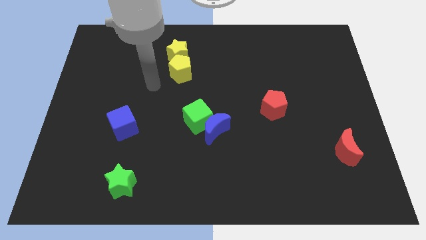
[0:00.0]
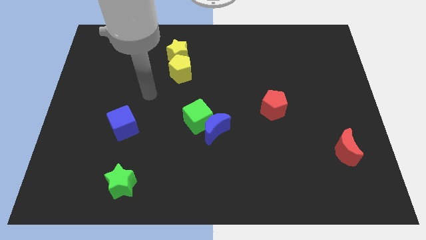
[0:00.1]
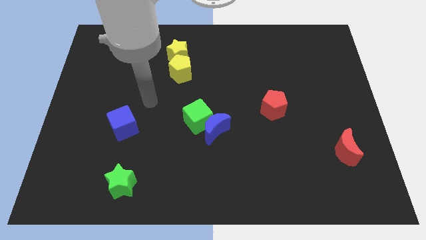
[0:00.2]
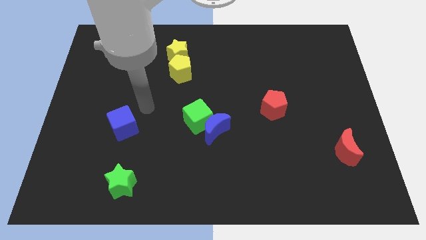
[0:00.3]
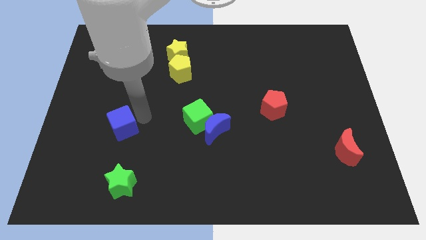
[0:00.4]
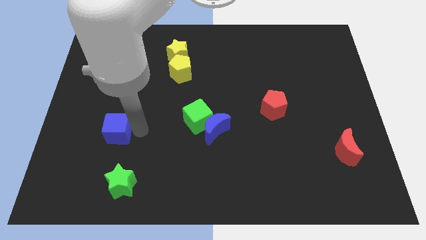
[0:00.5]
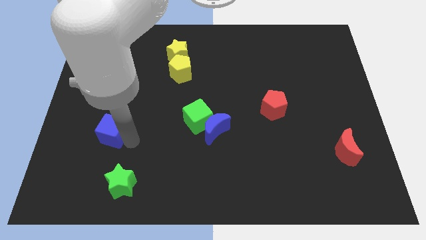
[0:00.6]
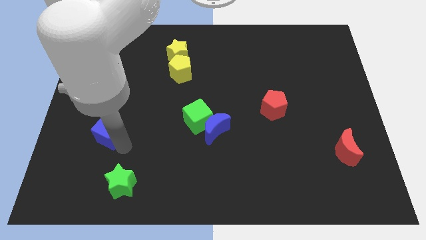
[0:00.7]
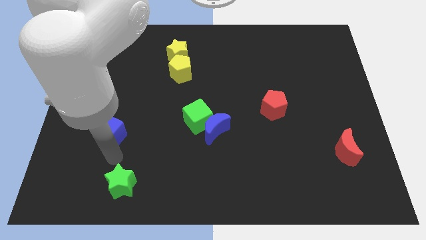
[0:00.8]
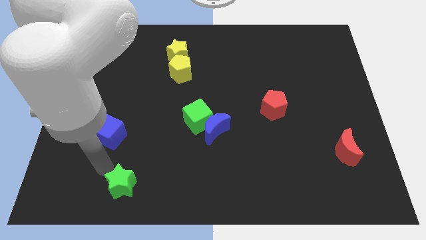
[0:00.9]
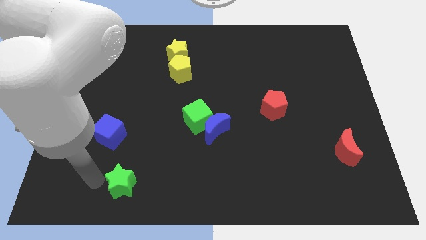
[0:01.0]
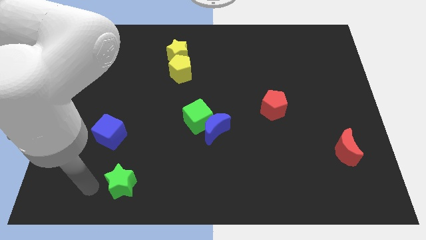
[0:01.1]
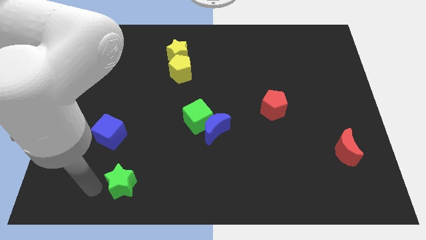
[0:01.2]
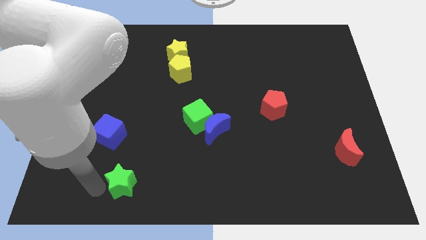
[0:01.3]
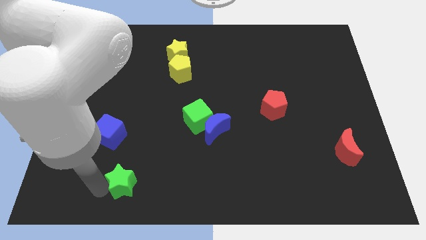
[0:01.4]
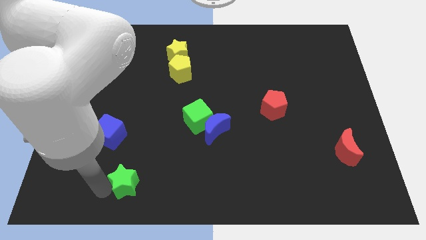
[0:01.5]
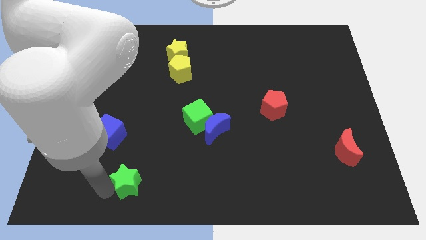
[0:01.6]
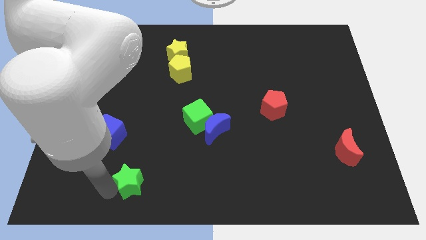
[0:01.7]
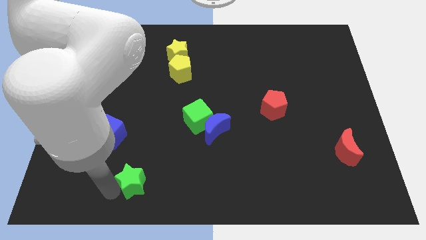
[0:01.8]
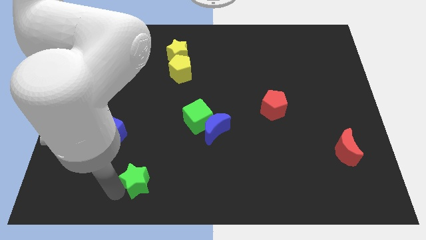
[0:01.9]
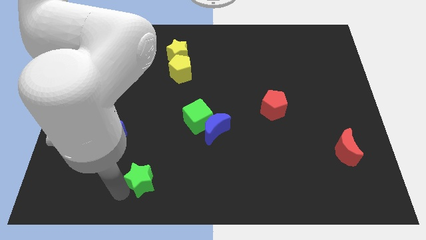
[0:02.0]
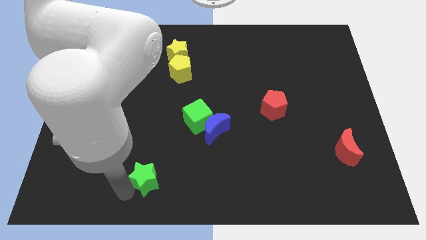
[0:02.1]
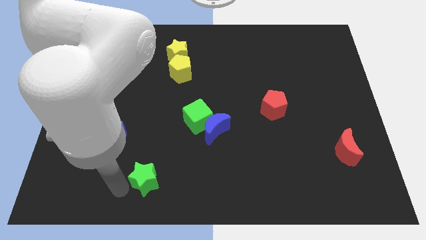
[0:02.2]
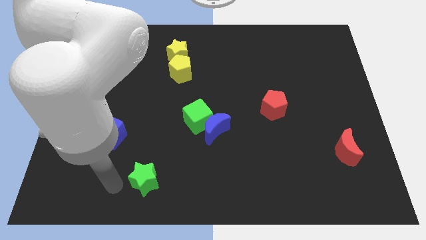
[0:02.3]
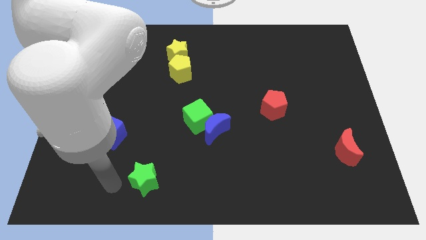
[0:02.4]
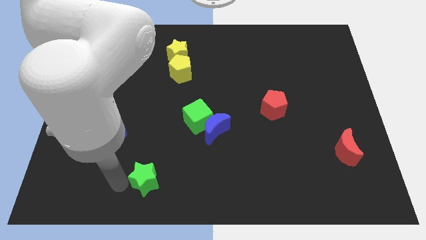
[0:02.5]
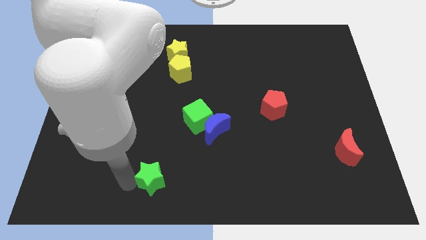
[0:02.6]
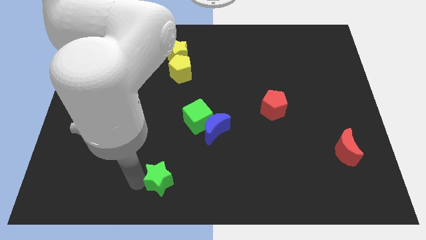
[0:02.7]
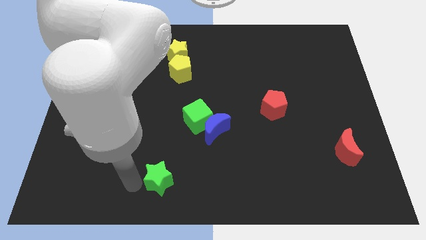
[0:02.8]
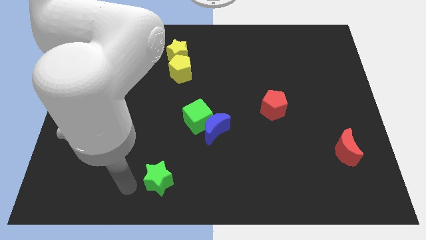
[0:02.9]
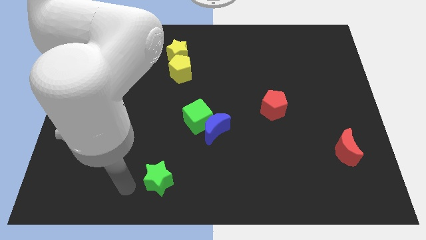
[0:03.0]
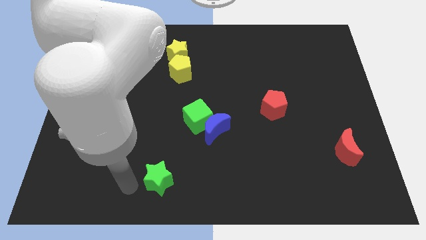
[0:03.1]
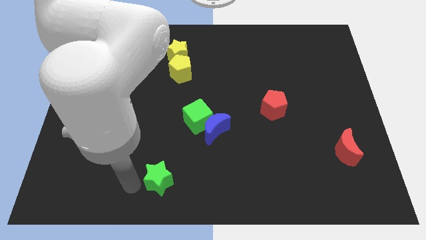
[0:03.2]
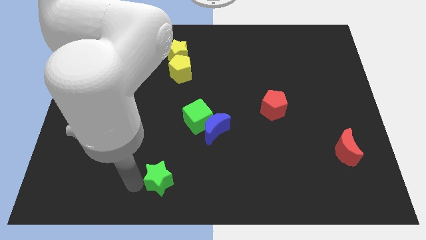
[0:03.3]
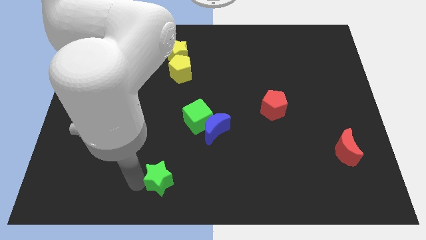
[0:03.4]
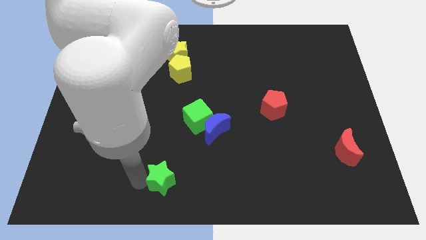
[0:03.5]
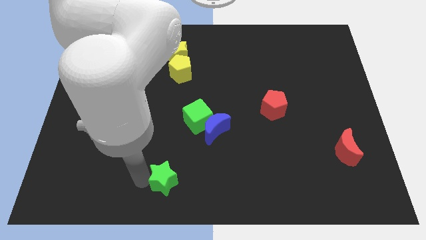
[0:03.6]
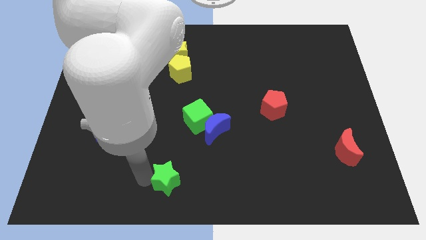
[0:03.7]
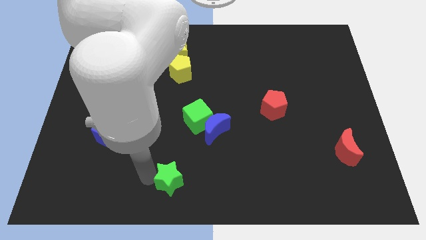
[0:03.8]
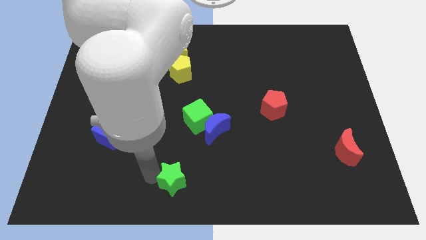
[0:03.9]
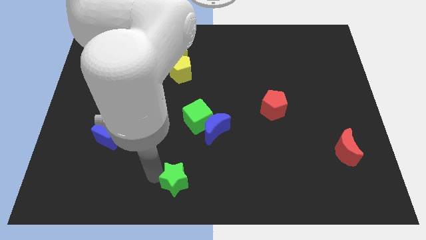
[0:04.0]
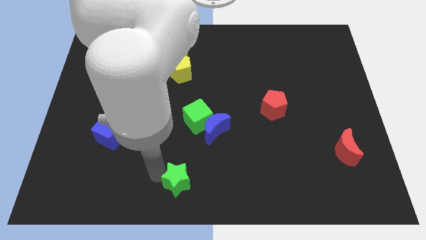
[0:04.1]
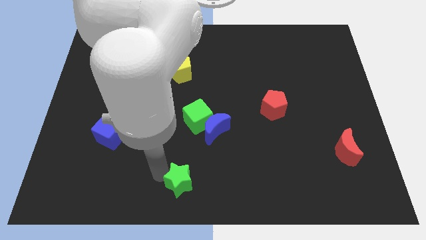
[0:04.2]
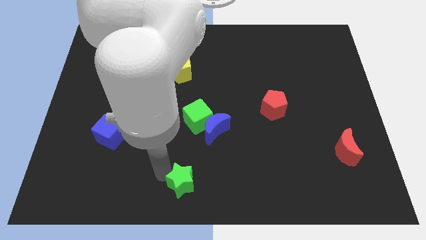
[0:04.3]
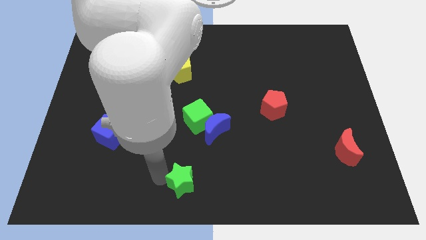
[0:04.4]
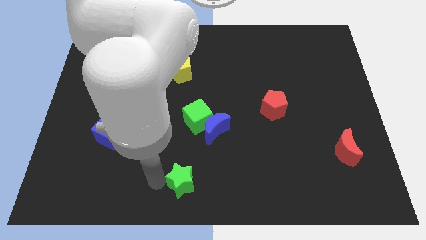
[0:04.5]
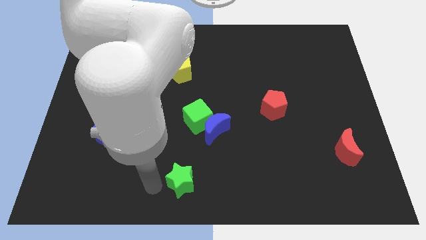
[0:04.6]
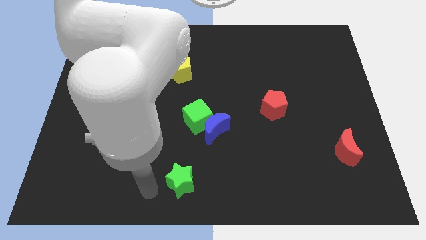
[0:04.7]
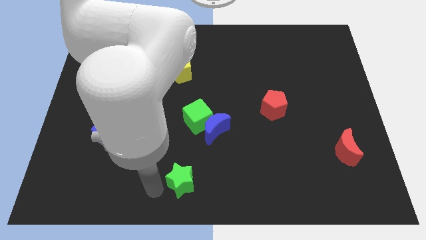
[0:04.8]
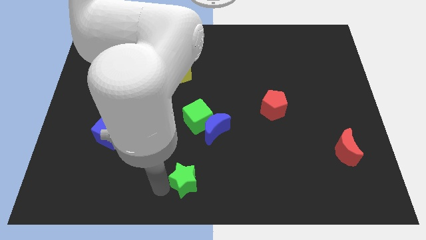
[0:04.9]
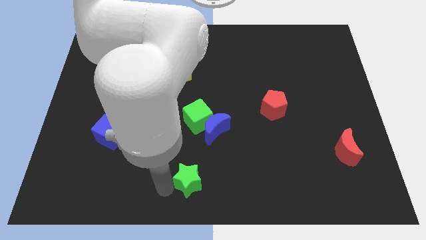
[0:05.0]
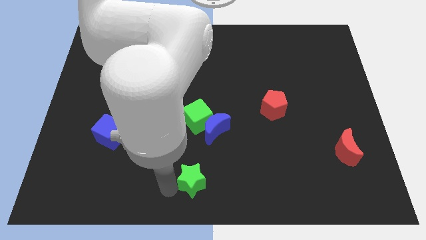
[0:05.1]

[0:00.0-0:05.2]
put the green star to the bottom of the blue moon

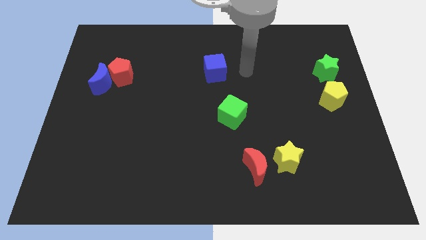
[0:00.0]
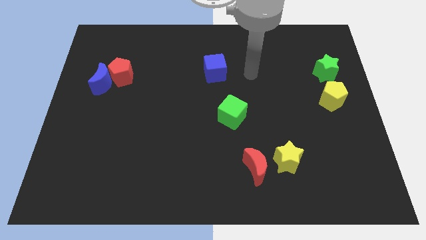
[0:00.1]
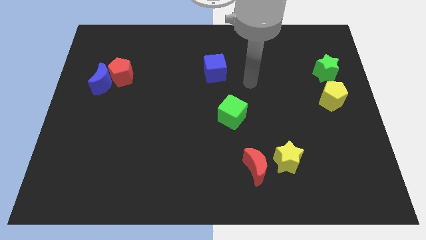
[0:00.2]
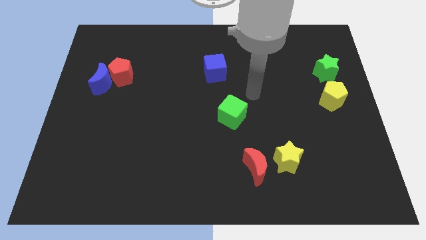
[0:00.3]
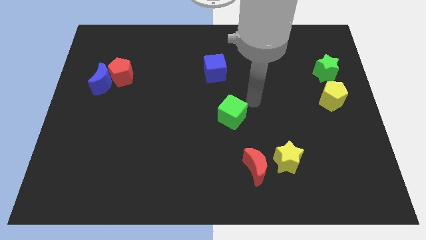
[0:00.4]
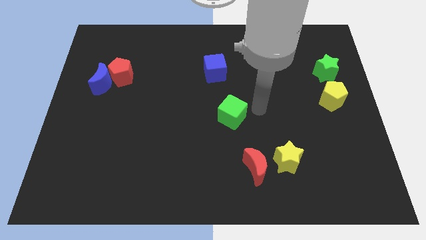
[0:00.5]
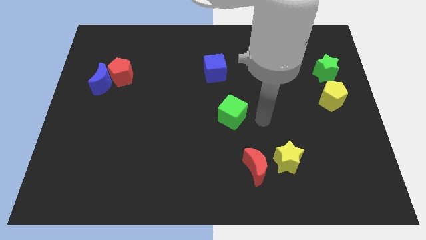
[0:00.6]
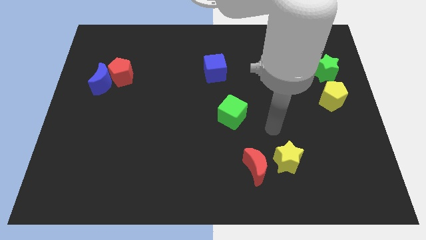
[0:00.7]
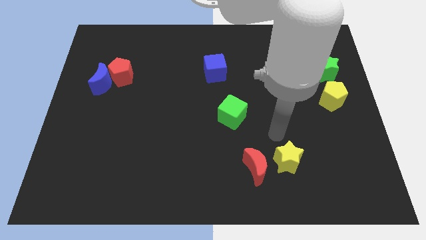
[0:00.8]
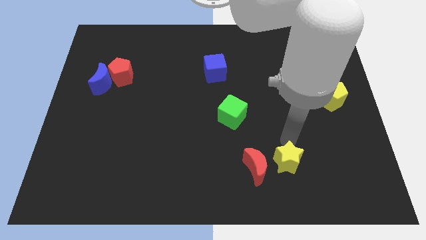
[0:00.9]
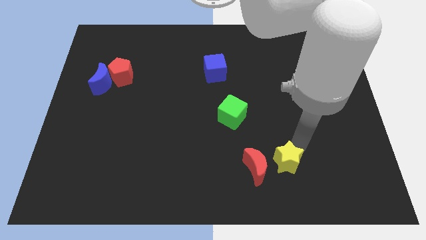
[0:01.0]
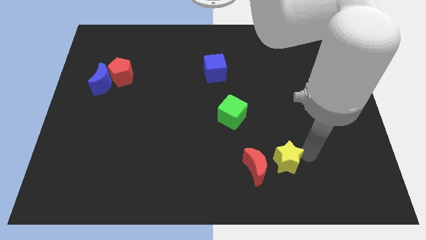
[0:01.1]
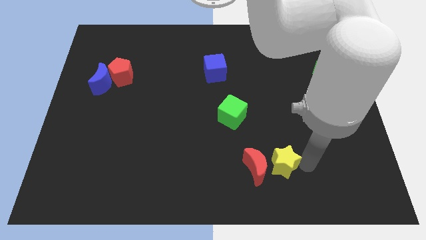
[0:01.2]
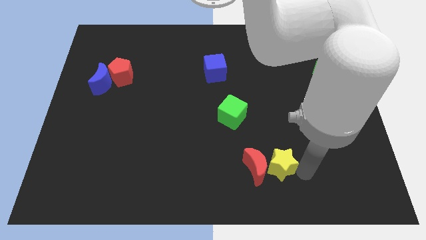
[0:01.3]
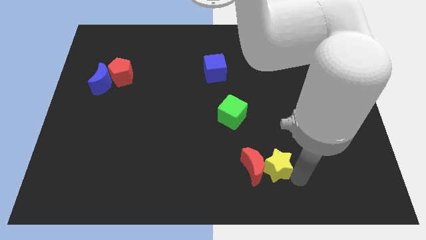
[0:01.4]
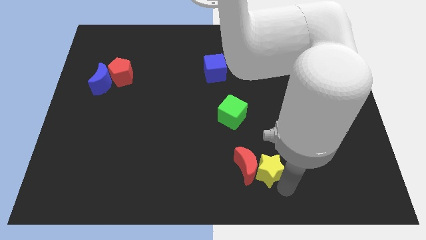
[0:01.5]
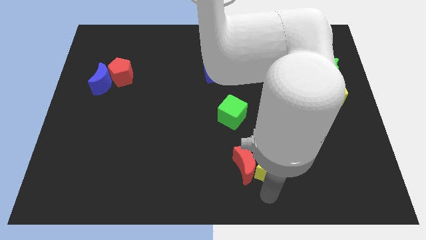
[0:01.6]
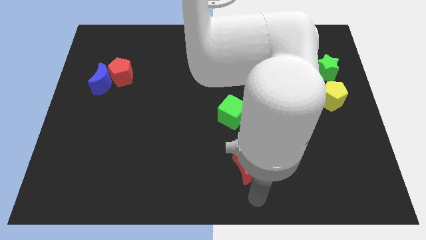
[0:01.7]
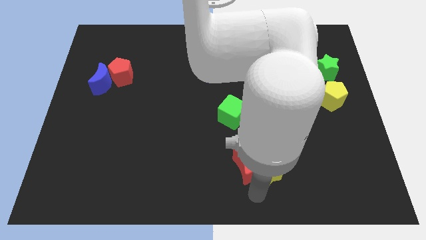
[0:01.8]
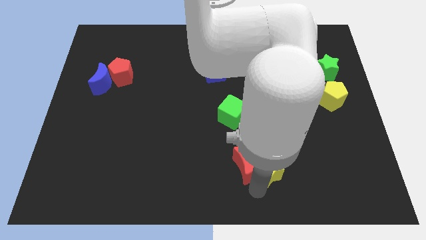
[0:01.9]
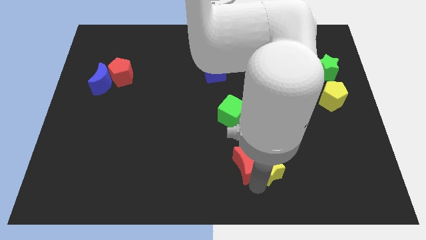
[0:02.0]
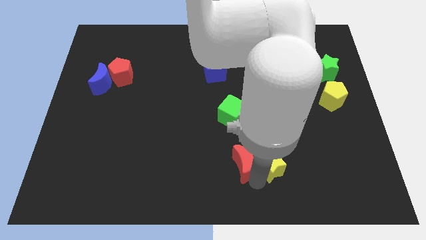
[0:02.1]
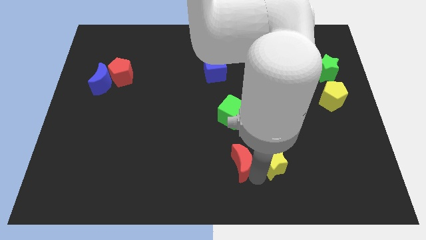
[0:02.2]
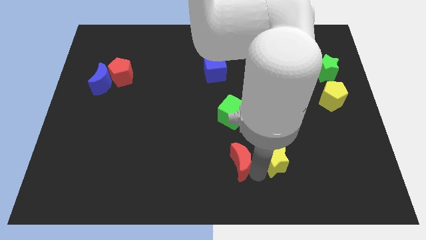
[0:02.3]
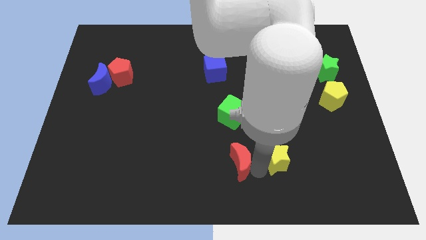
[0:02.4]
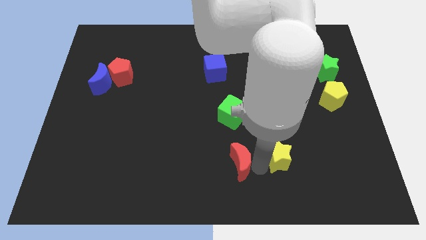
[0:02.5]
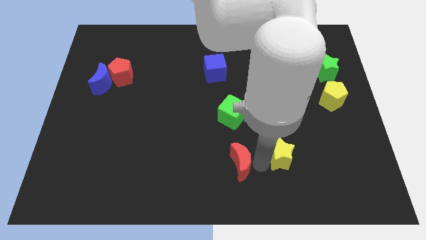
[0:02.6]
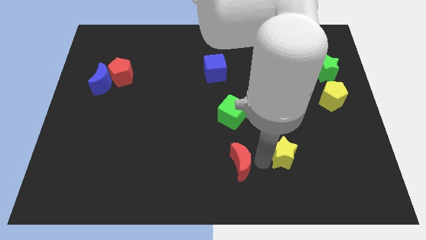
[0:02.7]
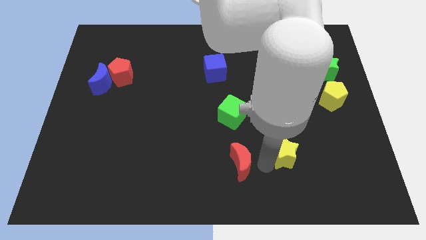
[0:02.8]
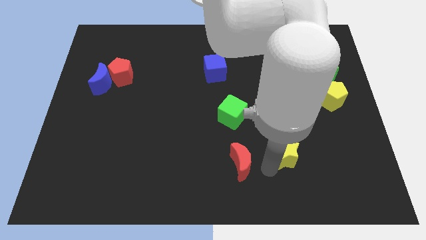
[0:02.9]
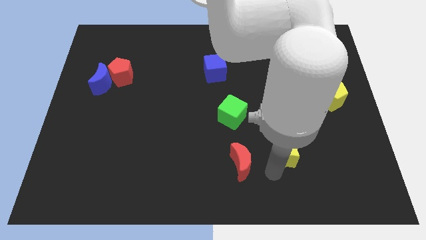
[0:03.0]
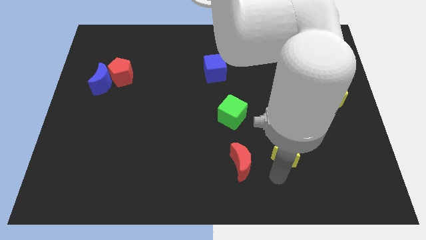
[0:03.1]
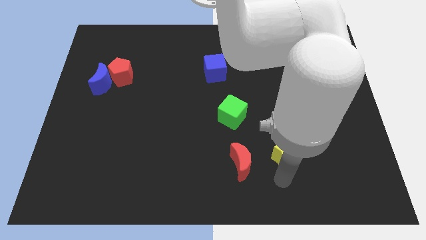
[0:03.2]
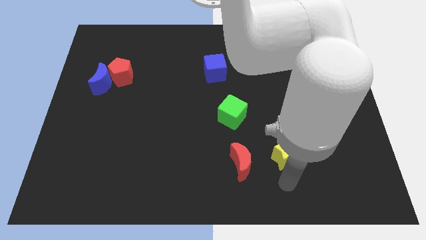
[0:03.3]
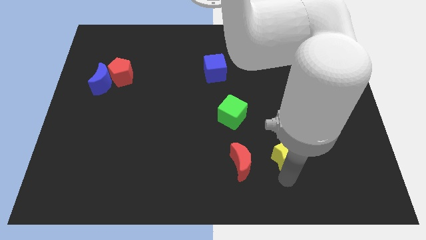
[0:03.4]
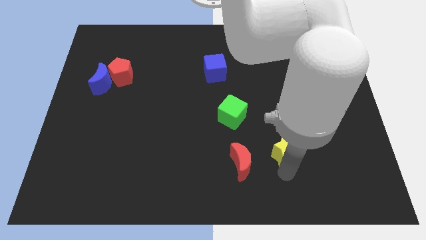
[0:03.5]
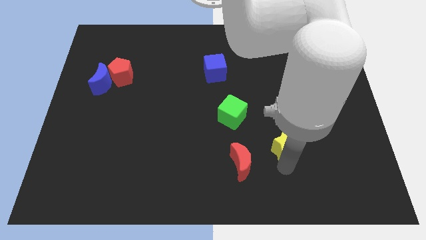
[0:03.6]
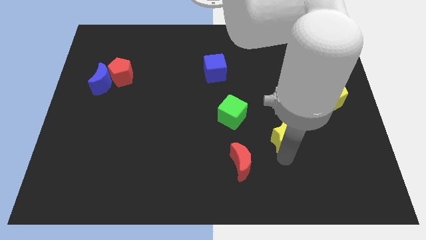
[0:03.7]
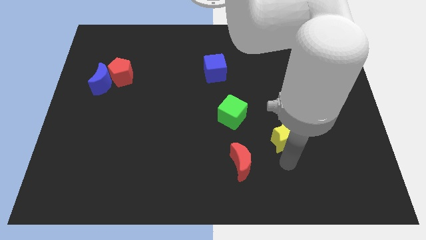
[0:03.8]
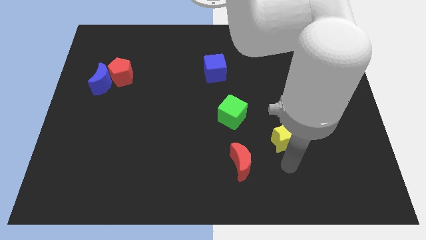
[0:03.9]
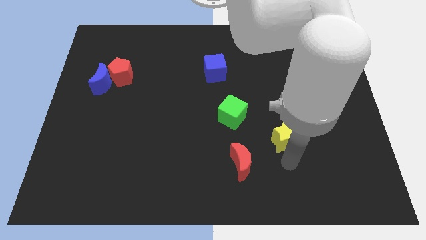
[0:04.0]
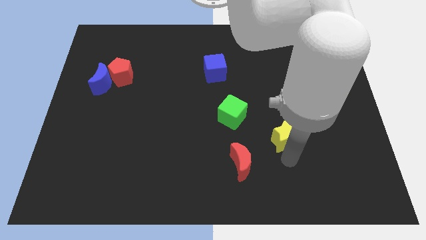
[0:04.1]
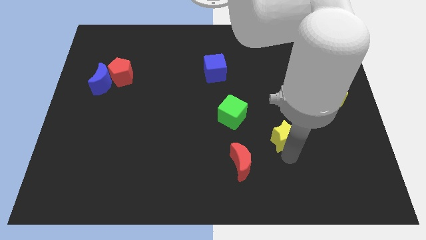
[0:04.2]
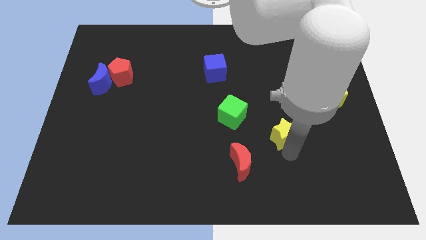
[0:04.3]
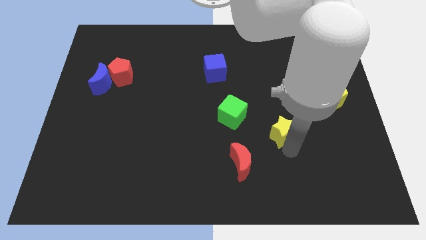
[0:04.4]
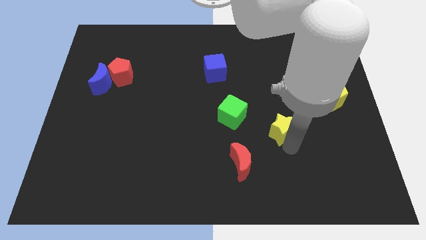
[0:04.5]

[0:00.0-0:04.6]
move the yellow star to the right of the green cube
